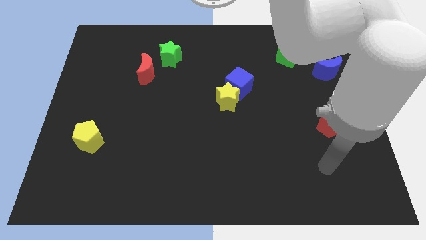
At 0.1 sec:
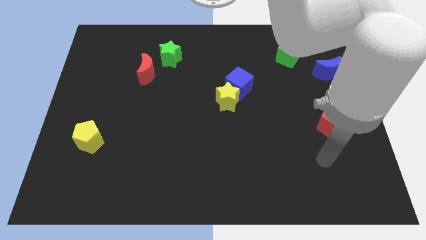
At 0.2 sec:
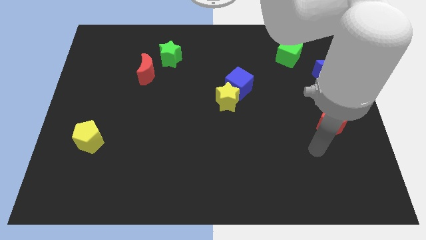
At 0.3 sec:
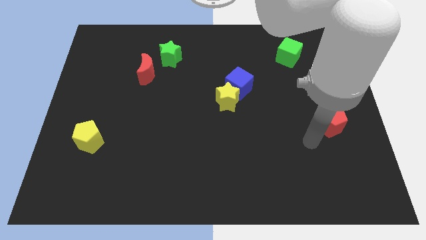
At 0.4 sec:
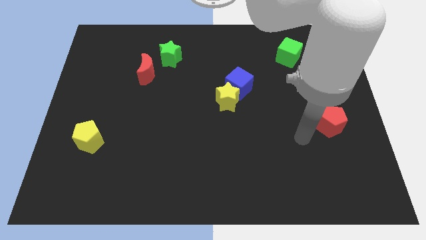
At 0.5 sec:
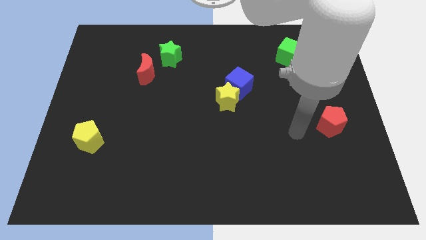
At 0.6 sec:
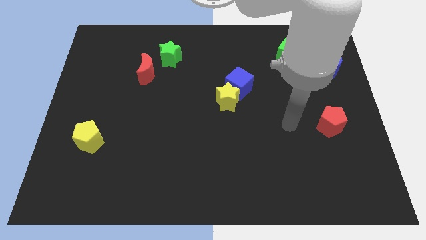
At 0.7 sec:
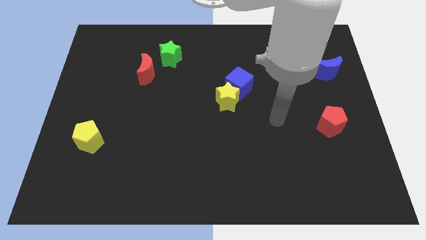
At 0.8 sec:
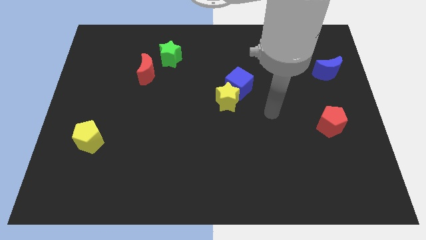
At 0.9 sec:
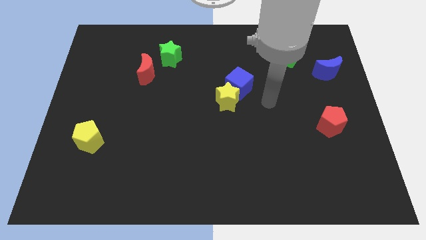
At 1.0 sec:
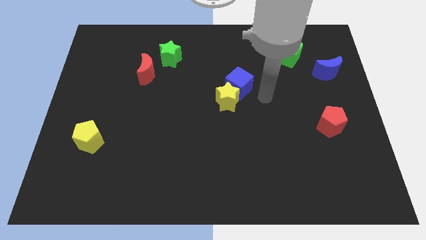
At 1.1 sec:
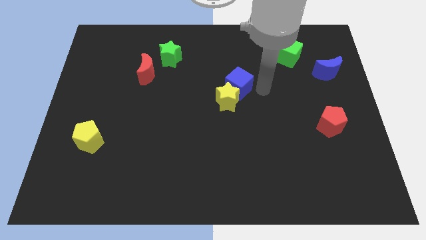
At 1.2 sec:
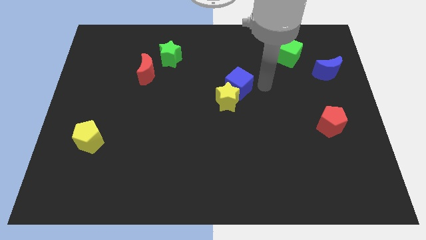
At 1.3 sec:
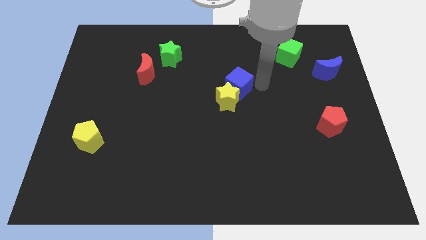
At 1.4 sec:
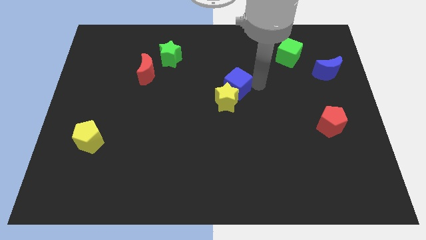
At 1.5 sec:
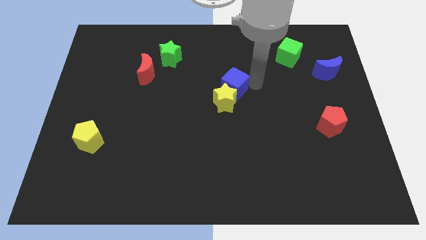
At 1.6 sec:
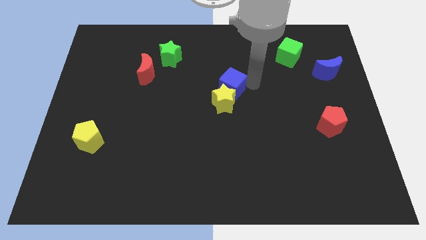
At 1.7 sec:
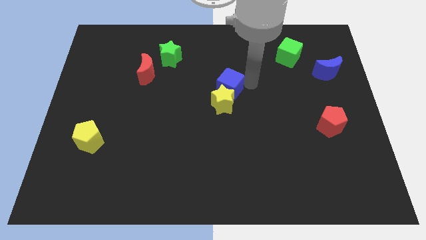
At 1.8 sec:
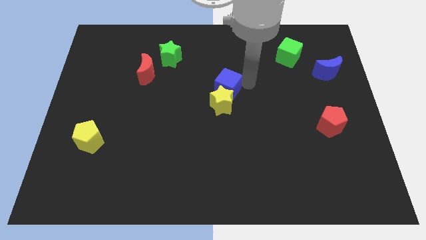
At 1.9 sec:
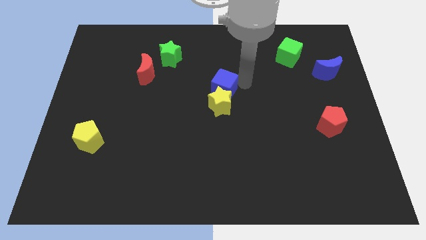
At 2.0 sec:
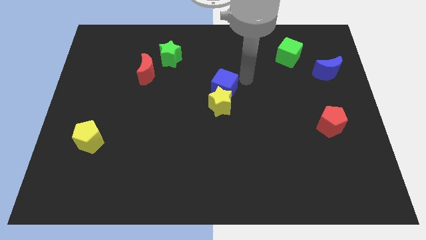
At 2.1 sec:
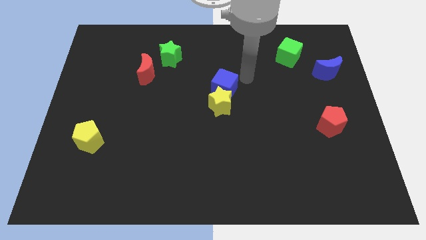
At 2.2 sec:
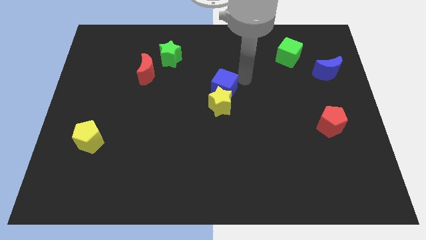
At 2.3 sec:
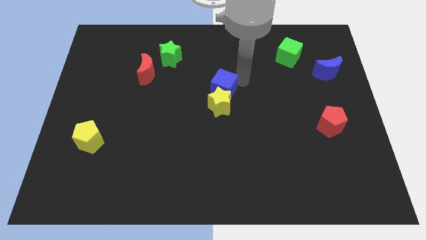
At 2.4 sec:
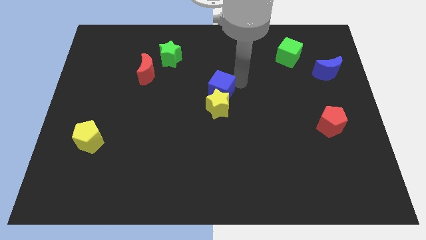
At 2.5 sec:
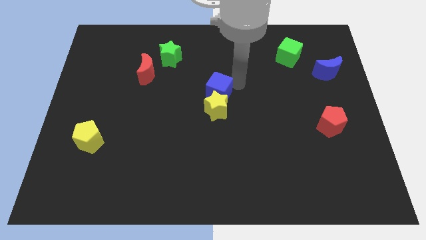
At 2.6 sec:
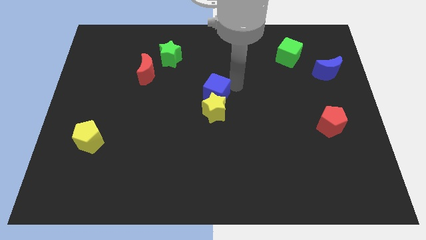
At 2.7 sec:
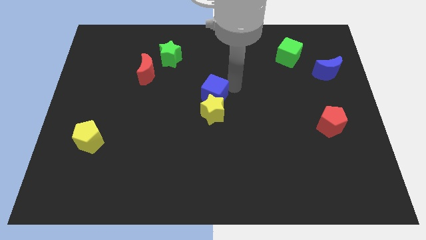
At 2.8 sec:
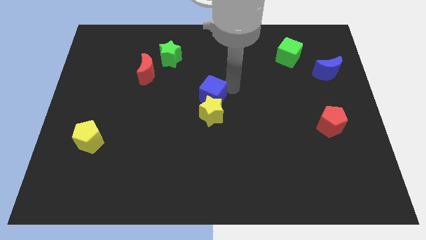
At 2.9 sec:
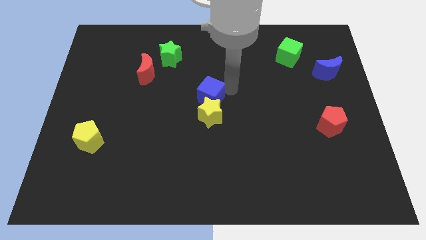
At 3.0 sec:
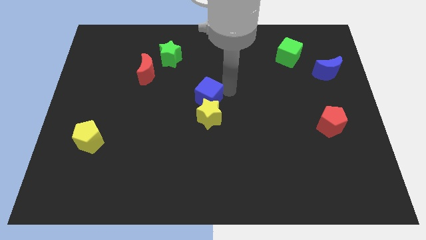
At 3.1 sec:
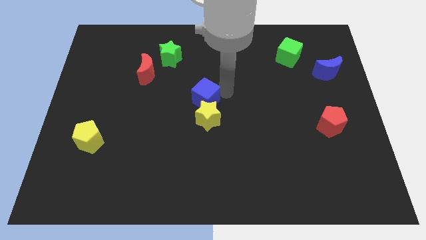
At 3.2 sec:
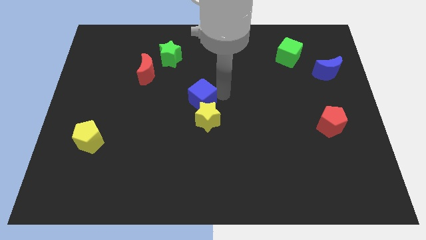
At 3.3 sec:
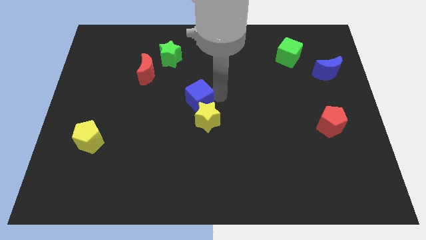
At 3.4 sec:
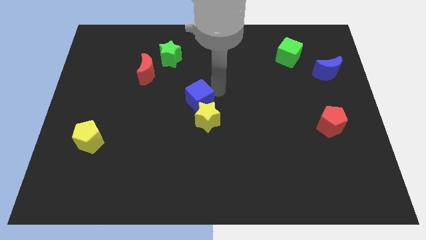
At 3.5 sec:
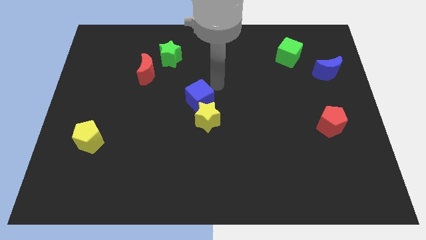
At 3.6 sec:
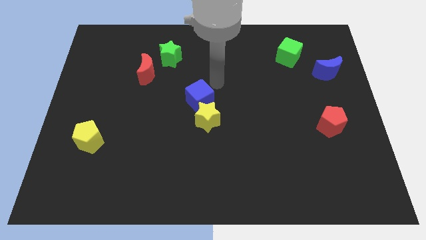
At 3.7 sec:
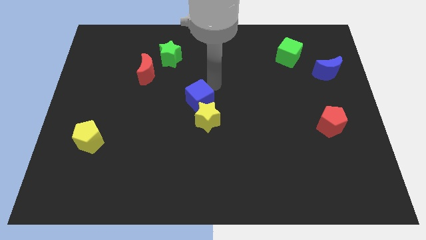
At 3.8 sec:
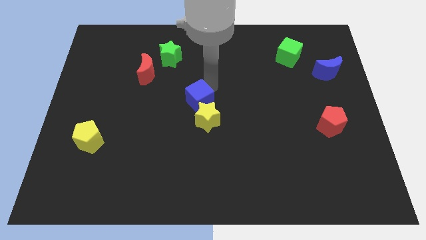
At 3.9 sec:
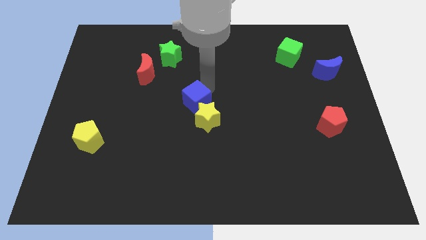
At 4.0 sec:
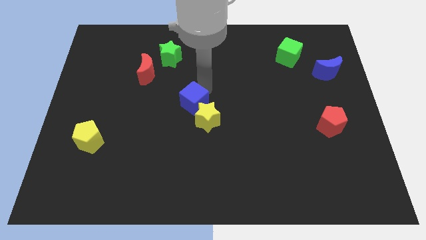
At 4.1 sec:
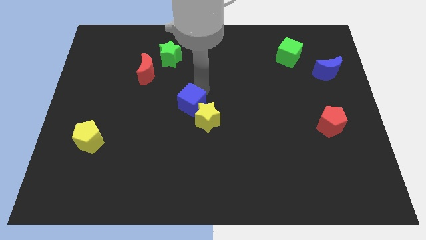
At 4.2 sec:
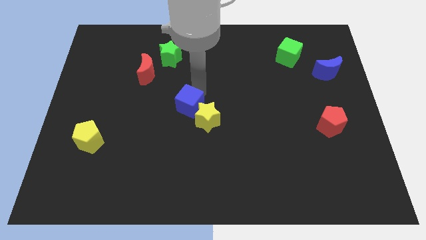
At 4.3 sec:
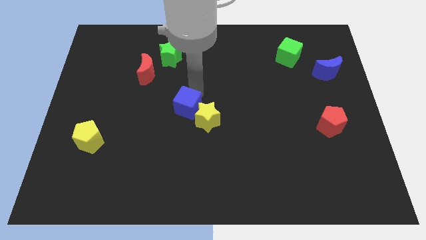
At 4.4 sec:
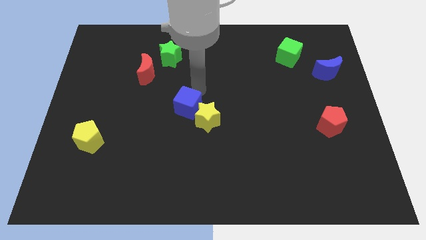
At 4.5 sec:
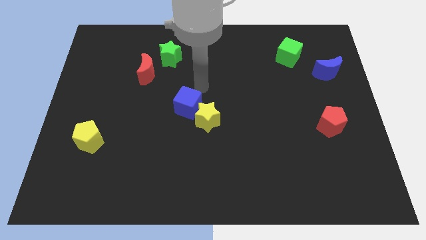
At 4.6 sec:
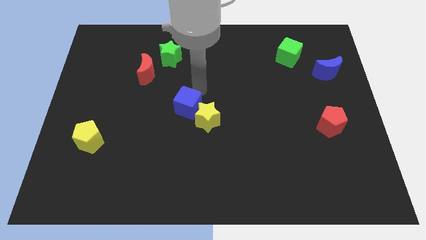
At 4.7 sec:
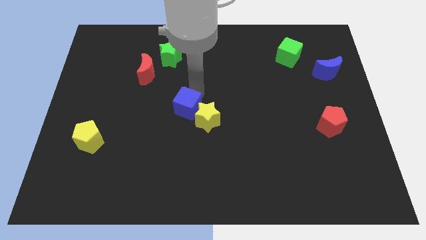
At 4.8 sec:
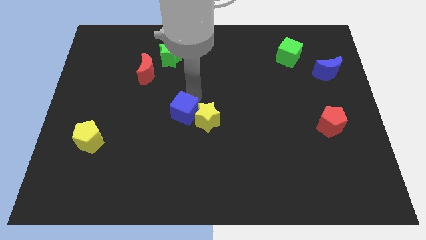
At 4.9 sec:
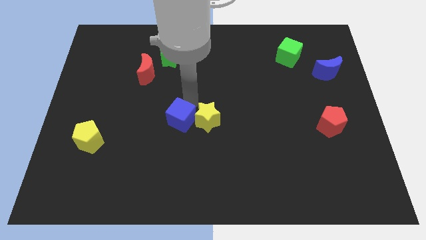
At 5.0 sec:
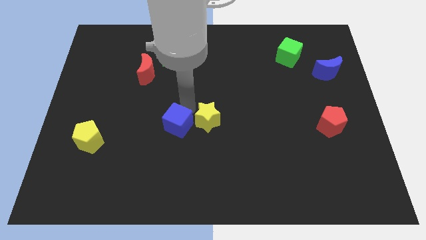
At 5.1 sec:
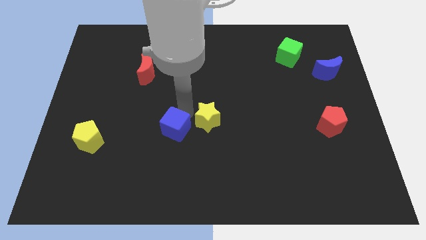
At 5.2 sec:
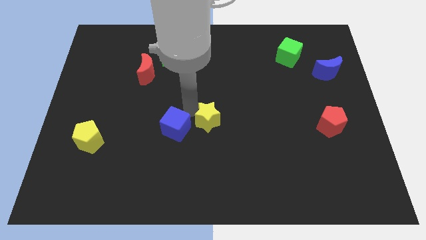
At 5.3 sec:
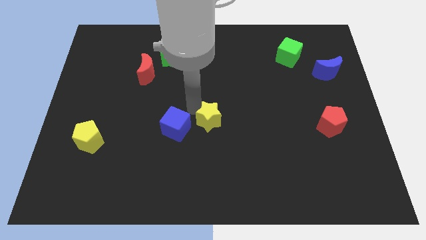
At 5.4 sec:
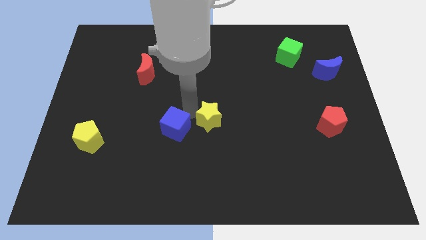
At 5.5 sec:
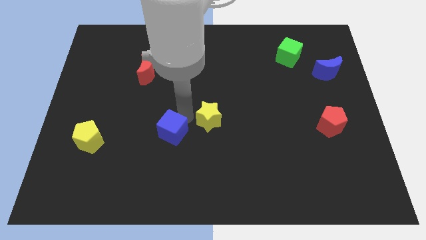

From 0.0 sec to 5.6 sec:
slide the blue cube diagonally downwards and left

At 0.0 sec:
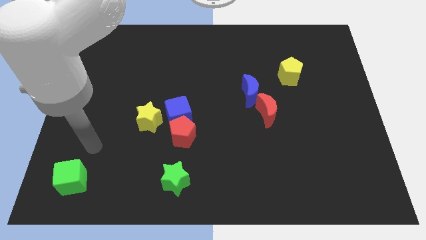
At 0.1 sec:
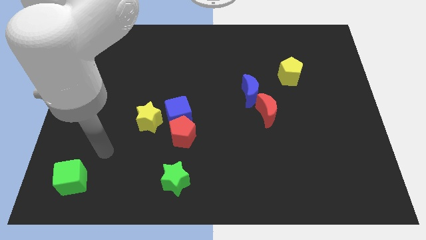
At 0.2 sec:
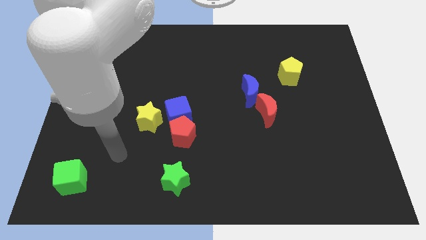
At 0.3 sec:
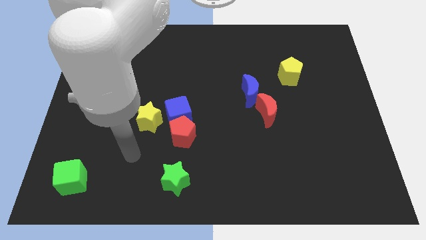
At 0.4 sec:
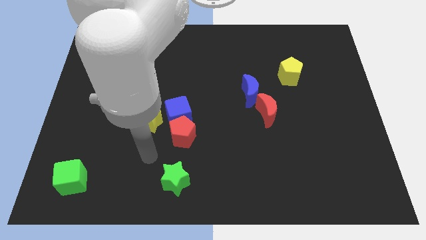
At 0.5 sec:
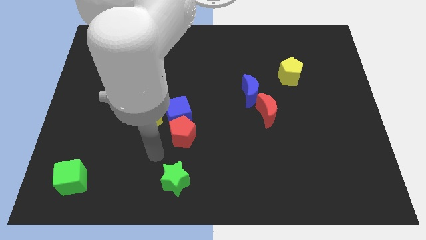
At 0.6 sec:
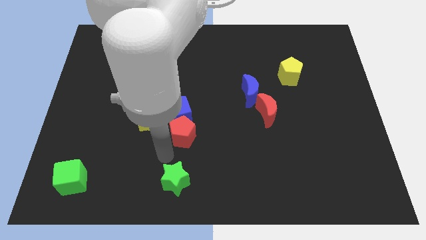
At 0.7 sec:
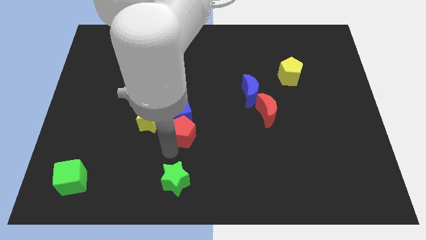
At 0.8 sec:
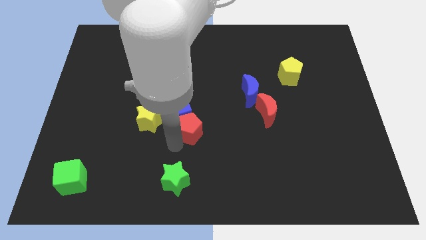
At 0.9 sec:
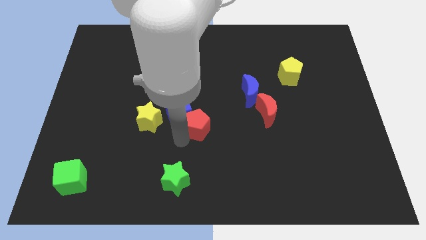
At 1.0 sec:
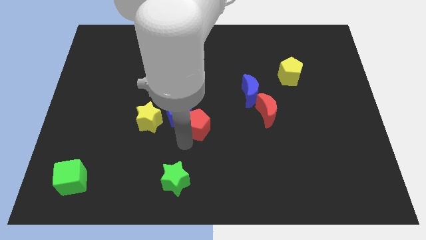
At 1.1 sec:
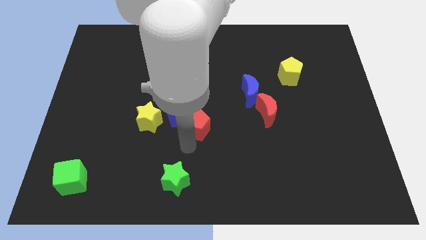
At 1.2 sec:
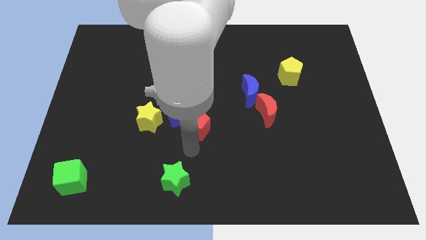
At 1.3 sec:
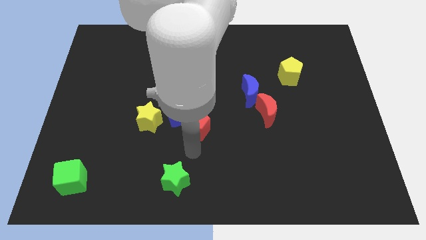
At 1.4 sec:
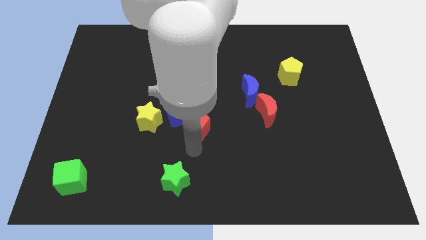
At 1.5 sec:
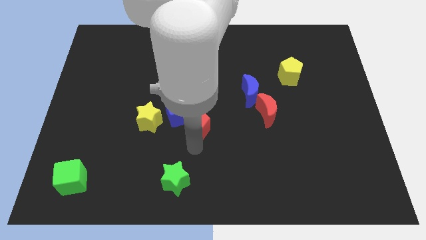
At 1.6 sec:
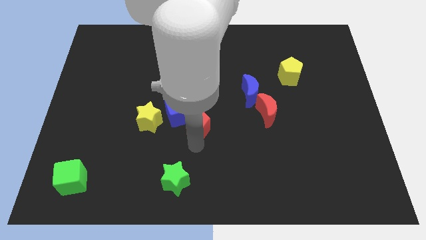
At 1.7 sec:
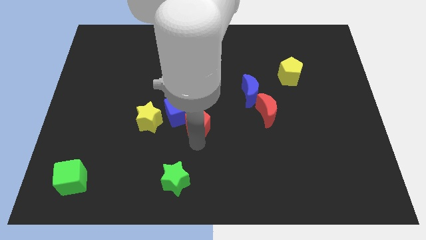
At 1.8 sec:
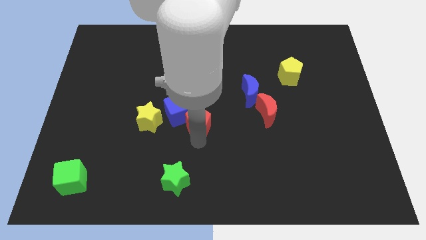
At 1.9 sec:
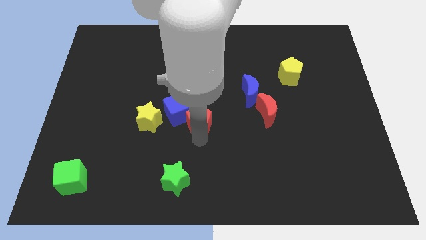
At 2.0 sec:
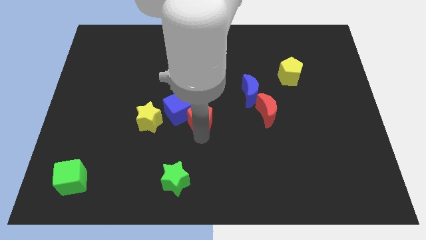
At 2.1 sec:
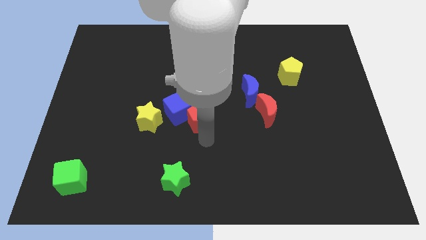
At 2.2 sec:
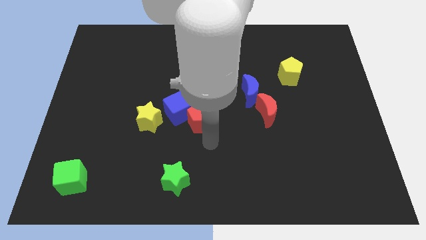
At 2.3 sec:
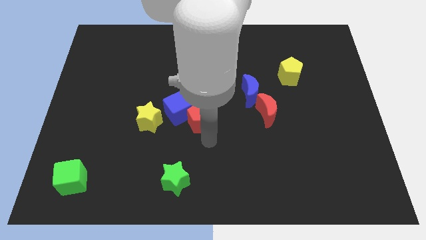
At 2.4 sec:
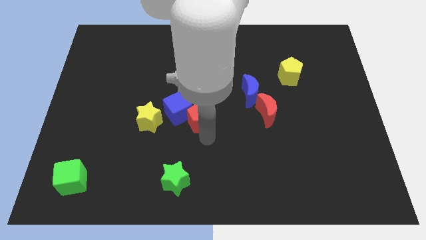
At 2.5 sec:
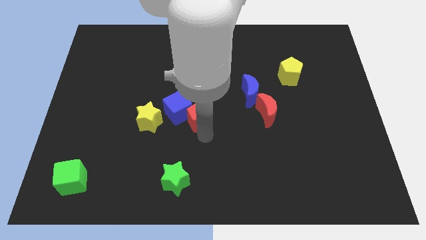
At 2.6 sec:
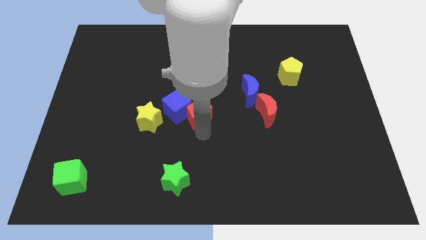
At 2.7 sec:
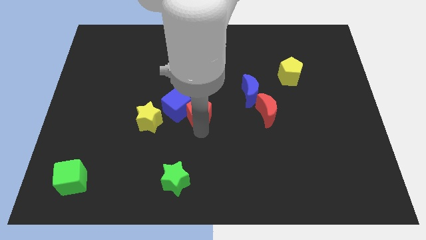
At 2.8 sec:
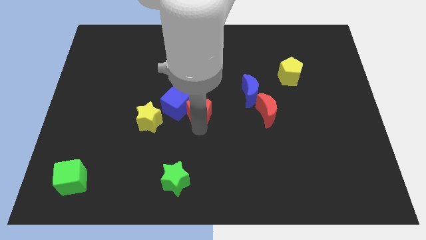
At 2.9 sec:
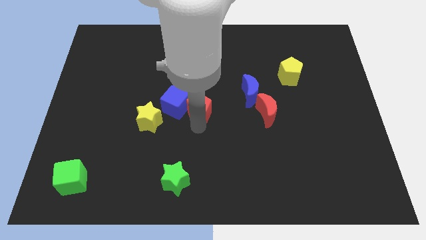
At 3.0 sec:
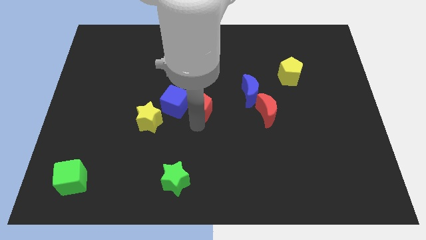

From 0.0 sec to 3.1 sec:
move the red pentagon upwards slightly
